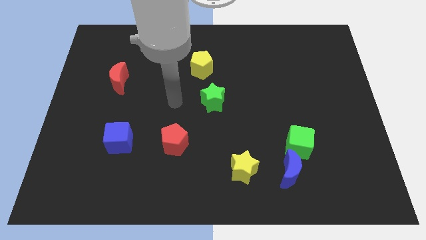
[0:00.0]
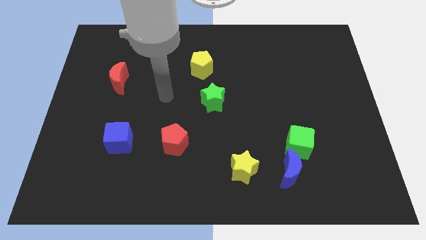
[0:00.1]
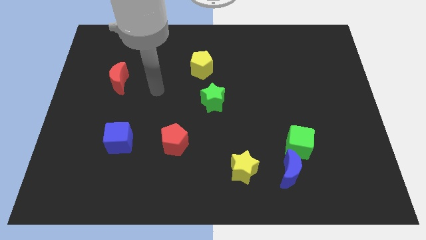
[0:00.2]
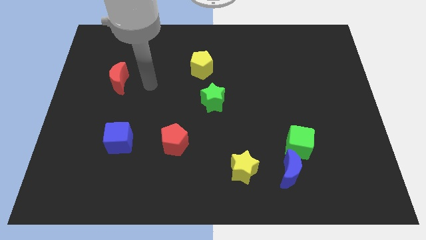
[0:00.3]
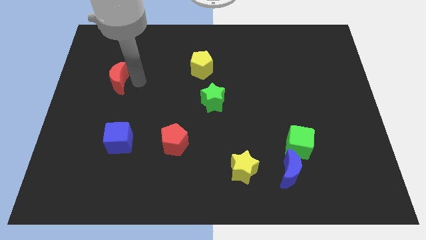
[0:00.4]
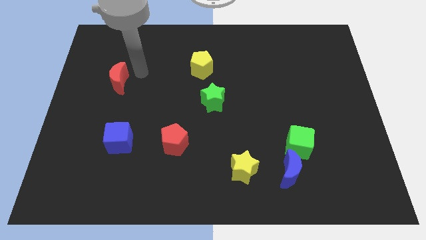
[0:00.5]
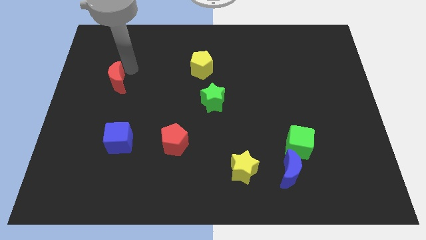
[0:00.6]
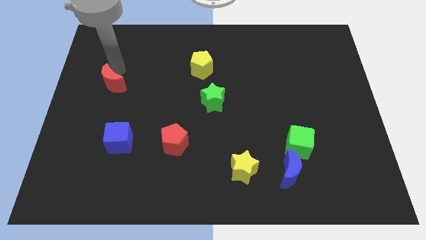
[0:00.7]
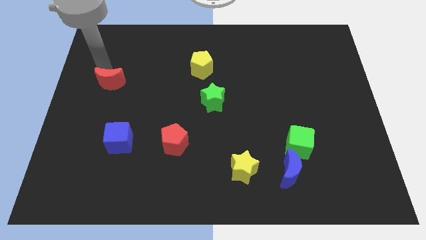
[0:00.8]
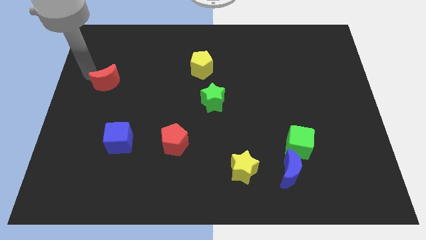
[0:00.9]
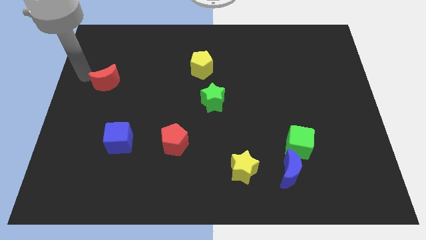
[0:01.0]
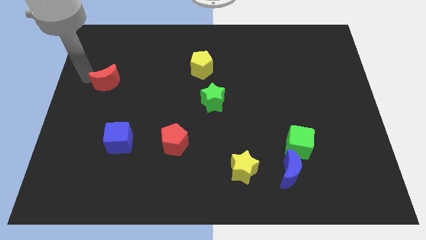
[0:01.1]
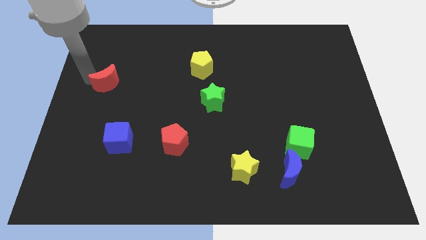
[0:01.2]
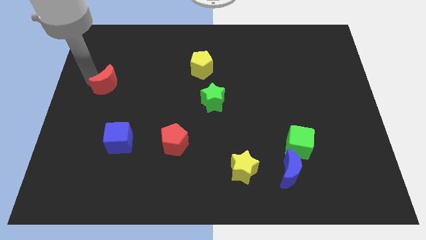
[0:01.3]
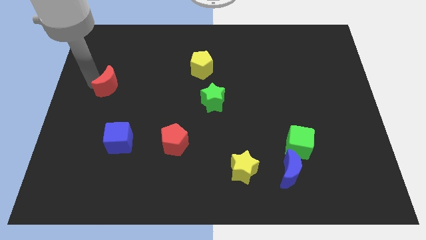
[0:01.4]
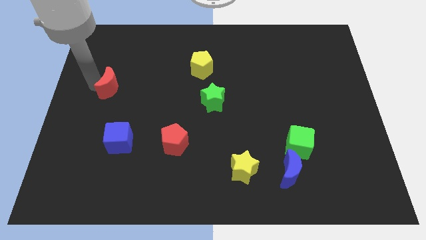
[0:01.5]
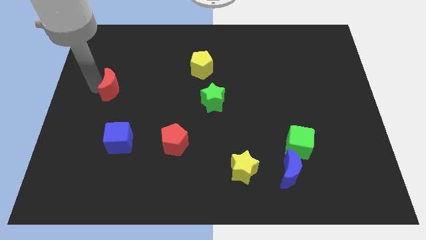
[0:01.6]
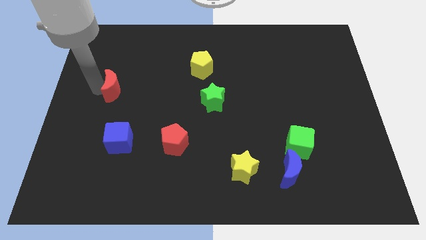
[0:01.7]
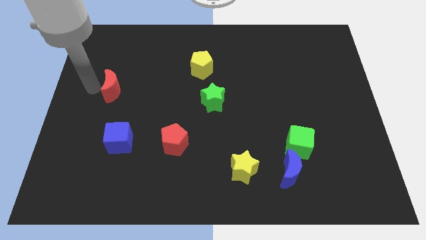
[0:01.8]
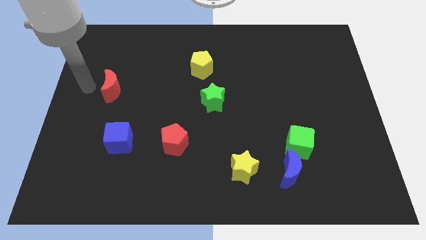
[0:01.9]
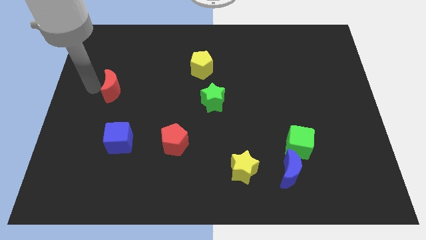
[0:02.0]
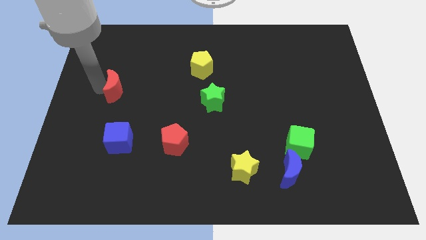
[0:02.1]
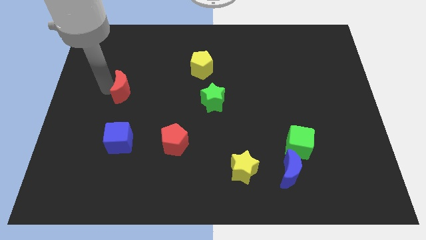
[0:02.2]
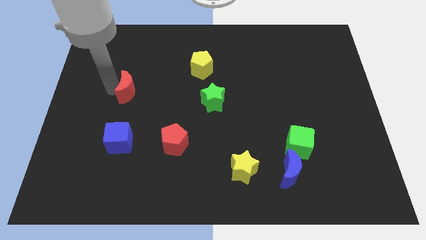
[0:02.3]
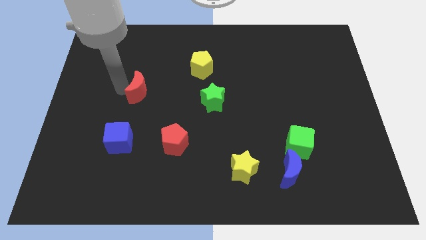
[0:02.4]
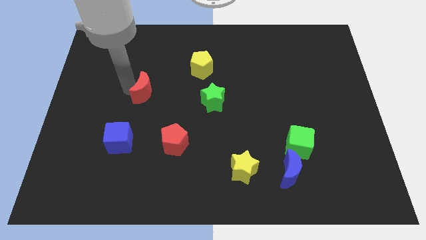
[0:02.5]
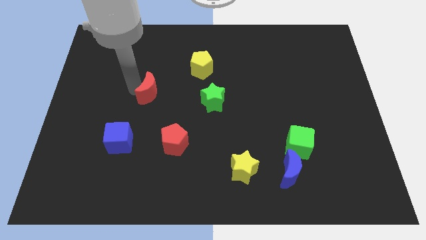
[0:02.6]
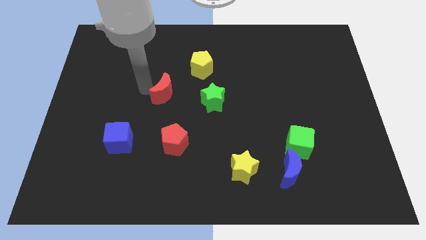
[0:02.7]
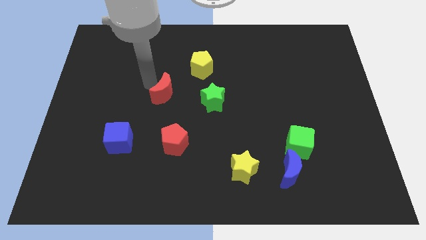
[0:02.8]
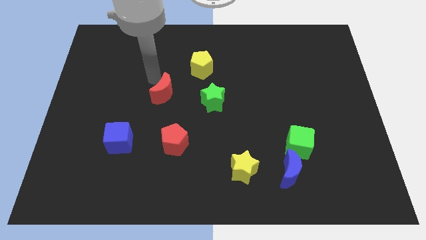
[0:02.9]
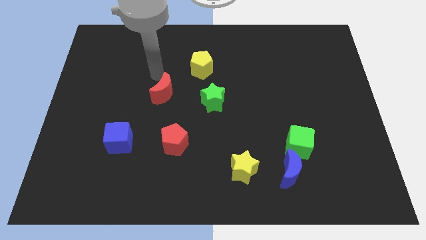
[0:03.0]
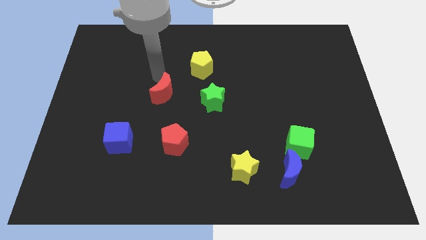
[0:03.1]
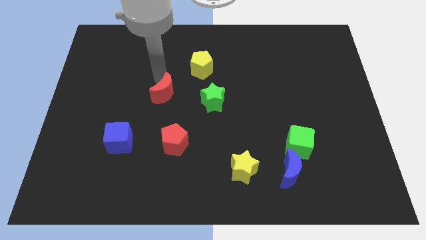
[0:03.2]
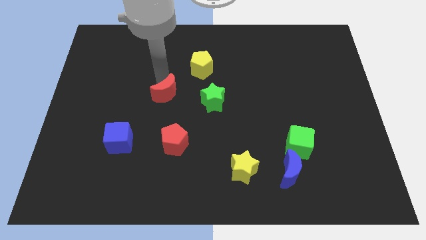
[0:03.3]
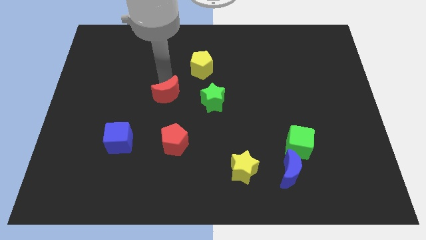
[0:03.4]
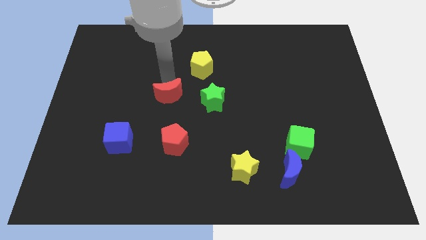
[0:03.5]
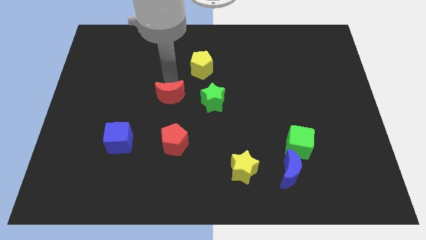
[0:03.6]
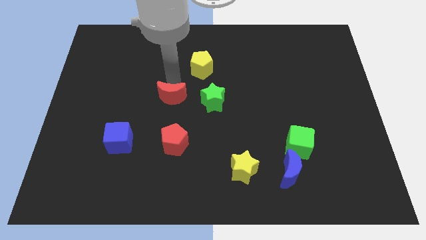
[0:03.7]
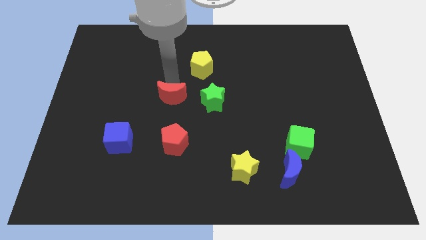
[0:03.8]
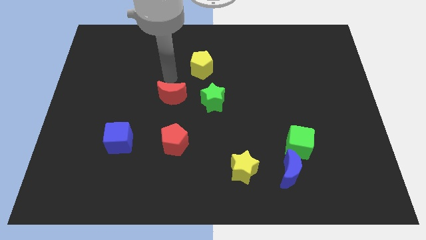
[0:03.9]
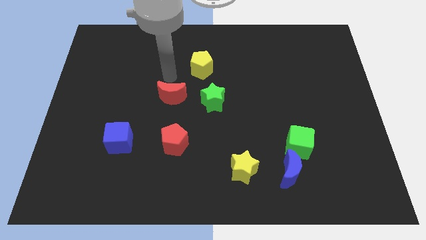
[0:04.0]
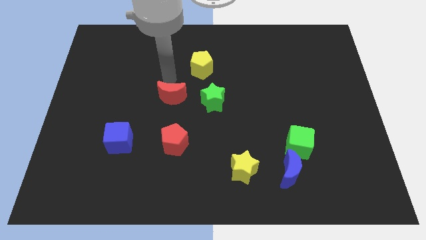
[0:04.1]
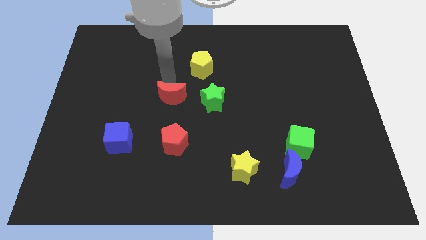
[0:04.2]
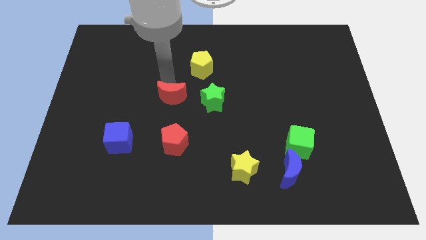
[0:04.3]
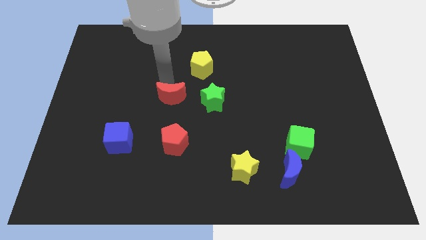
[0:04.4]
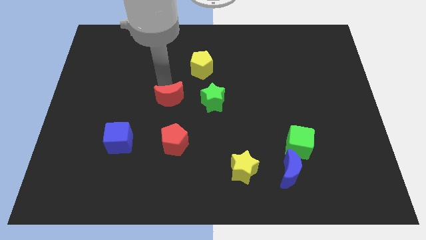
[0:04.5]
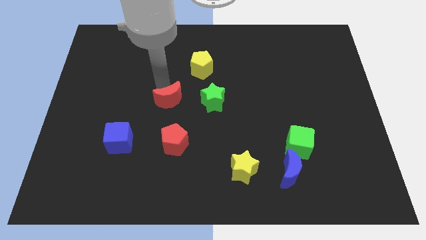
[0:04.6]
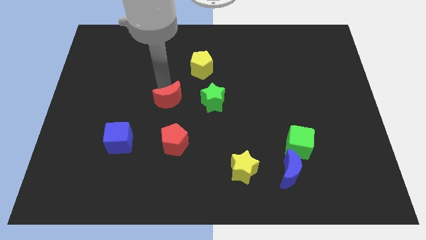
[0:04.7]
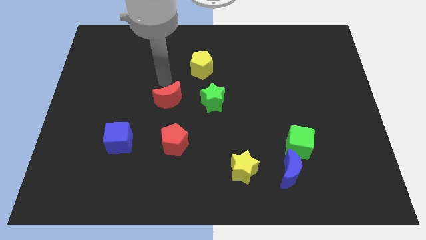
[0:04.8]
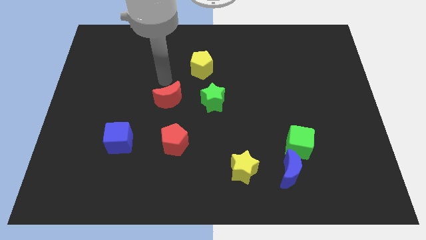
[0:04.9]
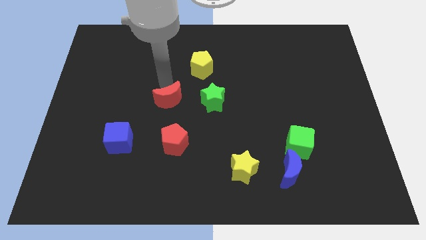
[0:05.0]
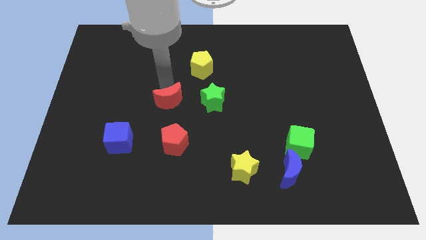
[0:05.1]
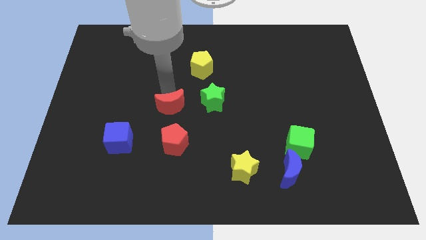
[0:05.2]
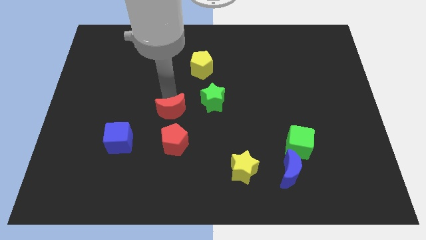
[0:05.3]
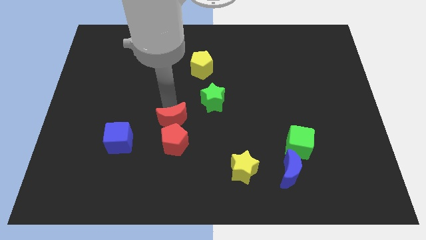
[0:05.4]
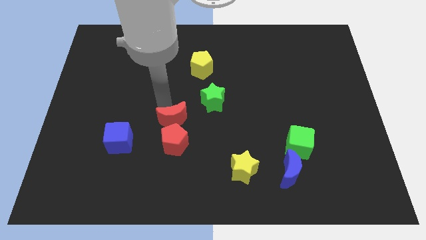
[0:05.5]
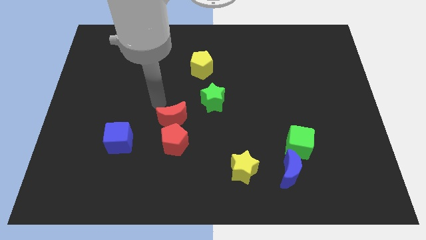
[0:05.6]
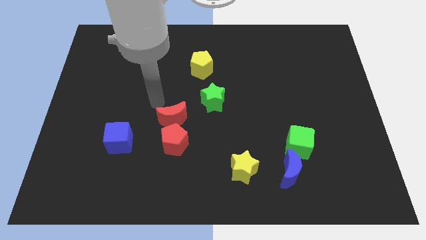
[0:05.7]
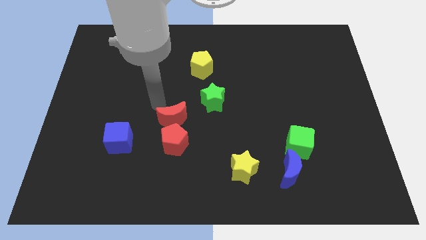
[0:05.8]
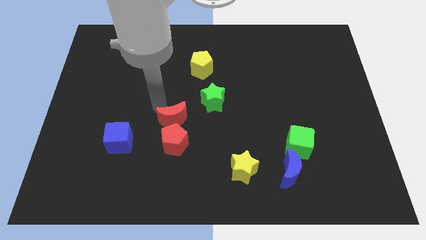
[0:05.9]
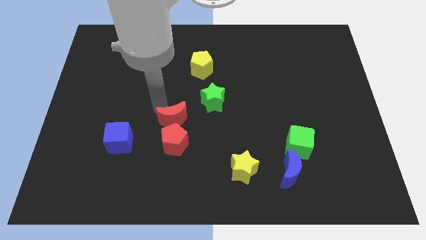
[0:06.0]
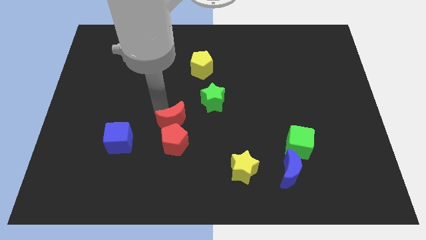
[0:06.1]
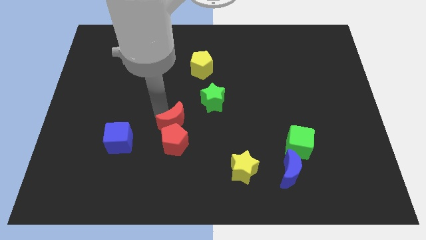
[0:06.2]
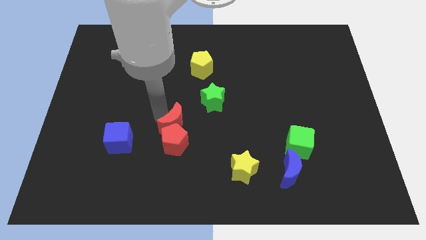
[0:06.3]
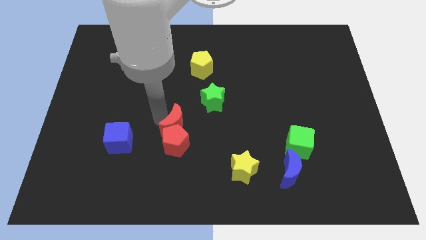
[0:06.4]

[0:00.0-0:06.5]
push the red moon down and right

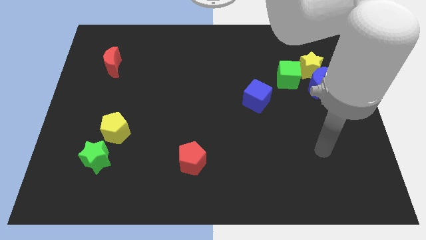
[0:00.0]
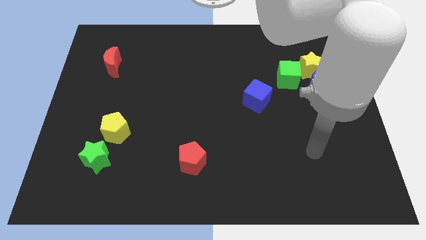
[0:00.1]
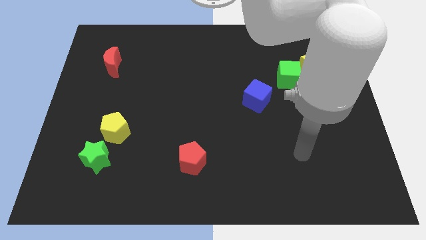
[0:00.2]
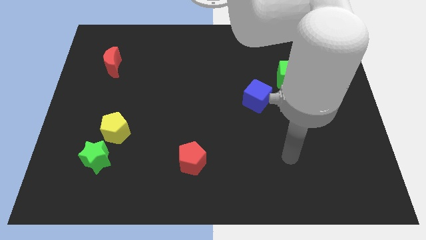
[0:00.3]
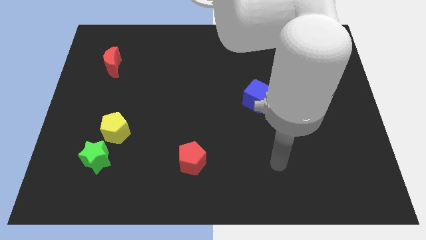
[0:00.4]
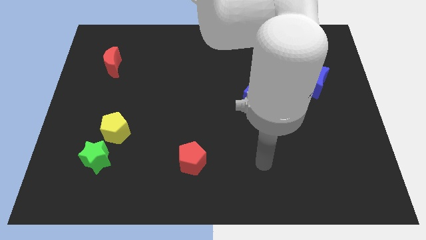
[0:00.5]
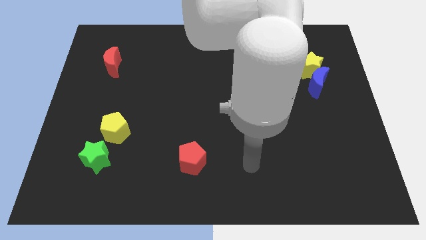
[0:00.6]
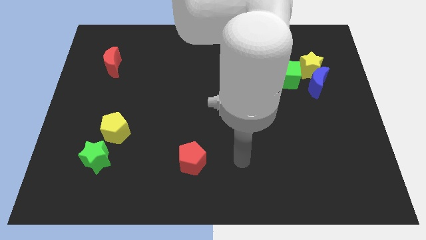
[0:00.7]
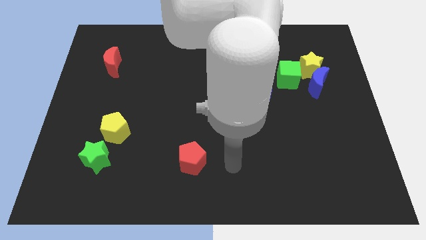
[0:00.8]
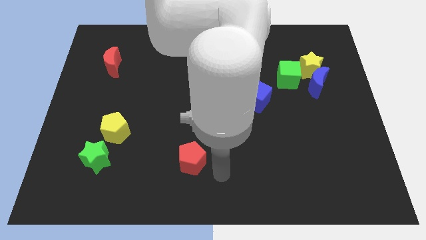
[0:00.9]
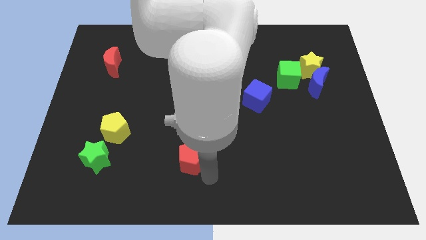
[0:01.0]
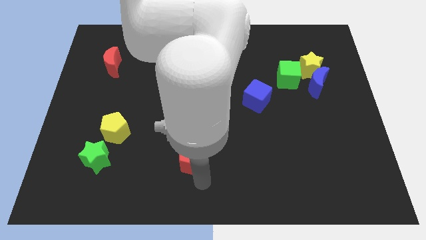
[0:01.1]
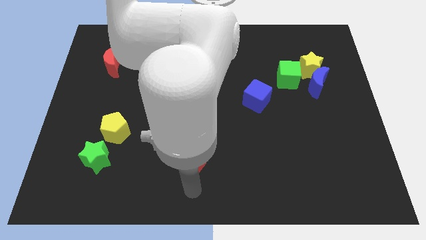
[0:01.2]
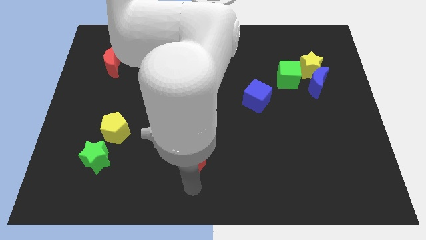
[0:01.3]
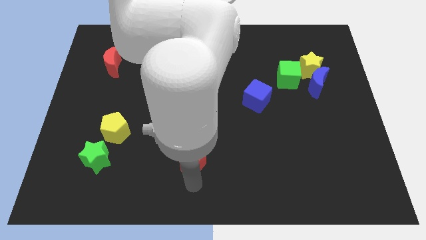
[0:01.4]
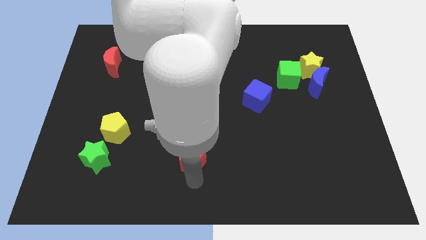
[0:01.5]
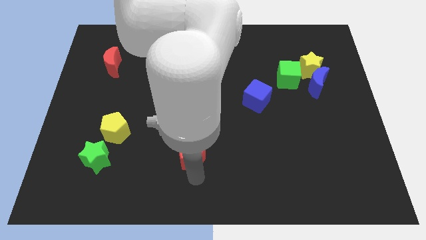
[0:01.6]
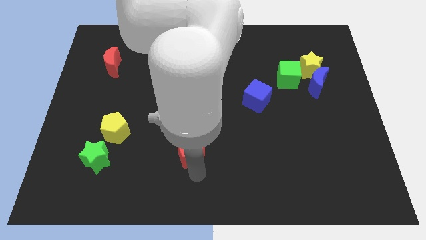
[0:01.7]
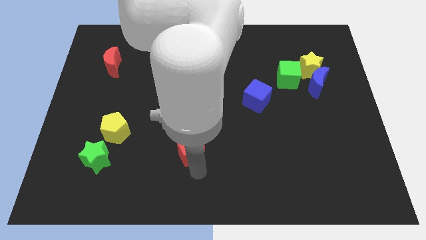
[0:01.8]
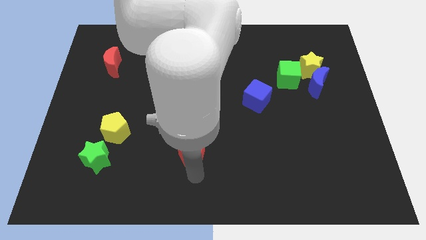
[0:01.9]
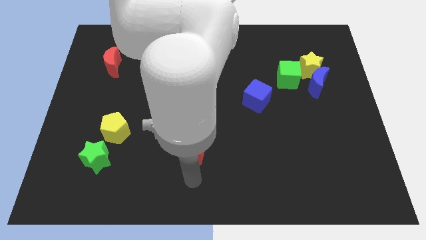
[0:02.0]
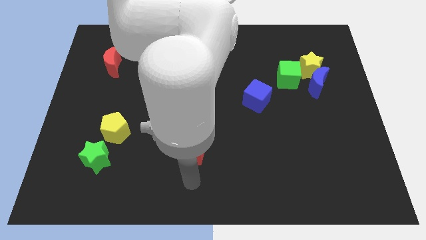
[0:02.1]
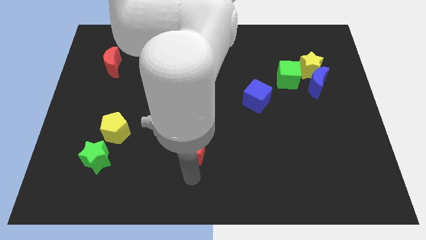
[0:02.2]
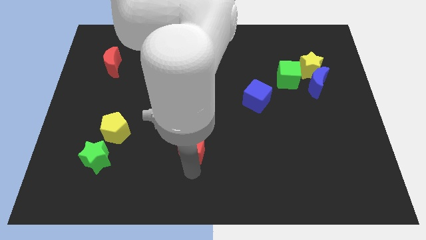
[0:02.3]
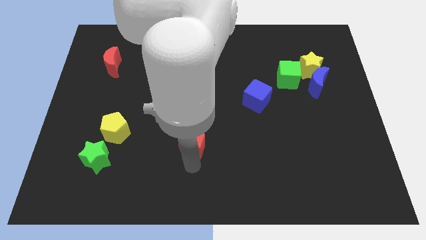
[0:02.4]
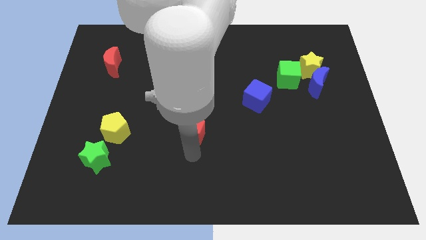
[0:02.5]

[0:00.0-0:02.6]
slide the red pentagon somewhat up
